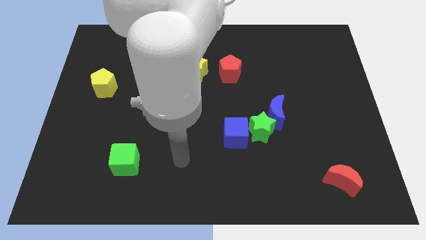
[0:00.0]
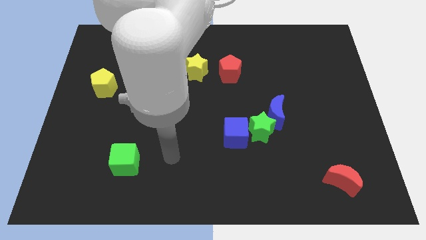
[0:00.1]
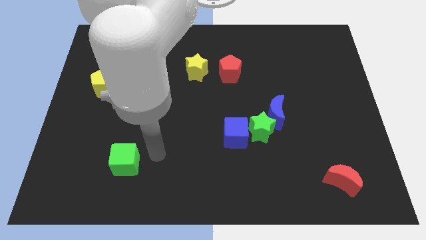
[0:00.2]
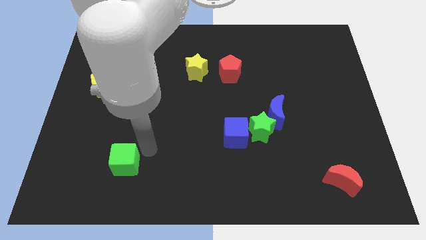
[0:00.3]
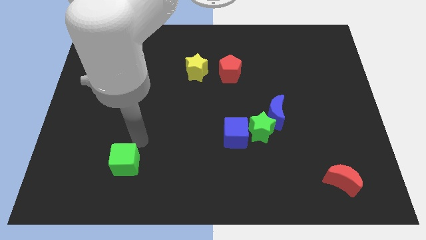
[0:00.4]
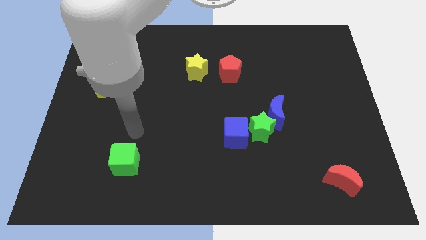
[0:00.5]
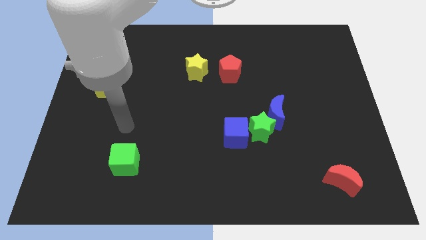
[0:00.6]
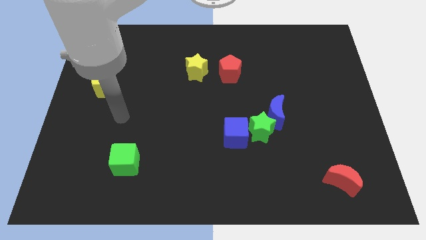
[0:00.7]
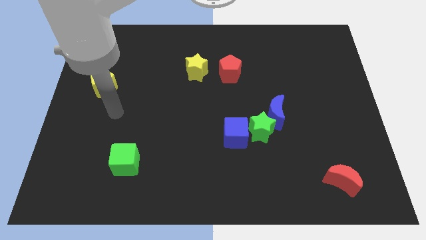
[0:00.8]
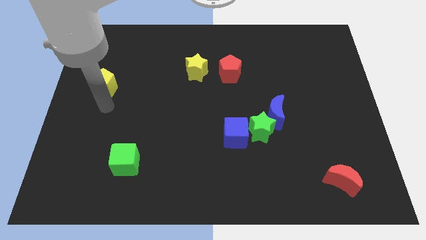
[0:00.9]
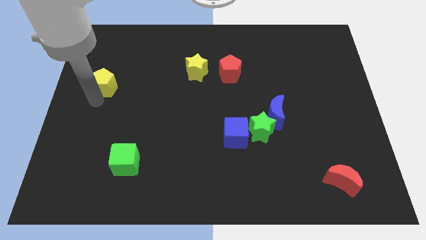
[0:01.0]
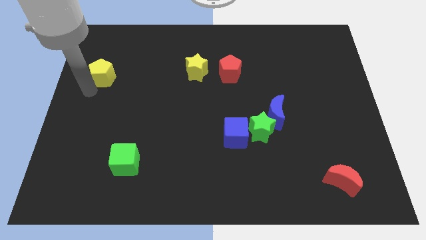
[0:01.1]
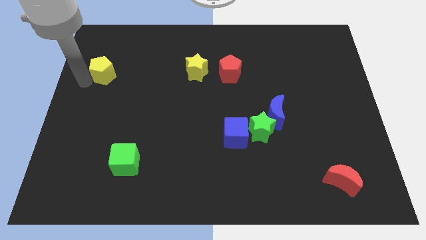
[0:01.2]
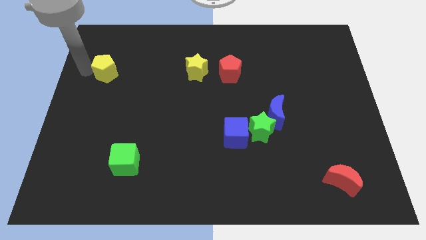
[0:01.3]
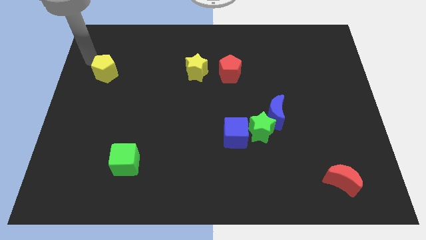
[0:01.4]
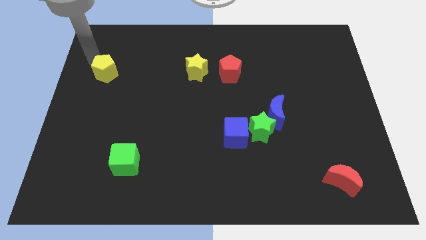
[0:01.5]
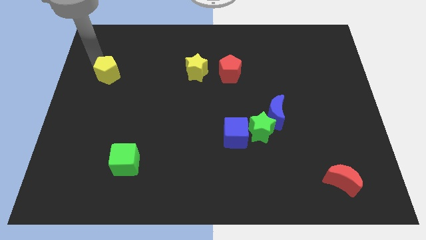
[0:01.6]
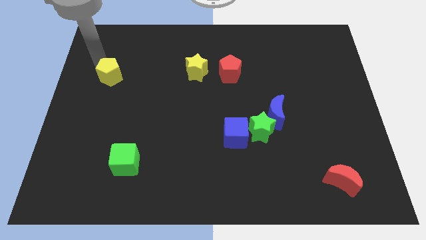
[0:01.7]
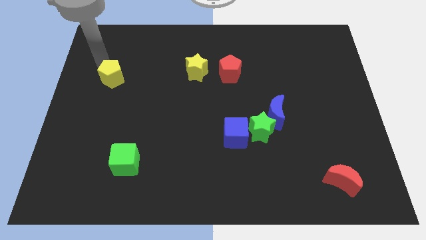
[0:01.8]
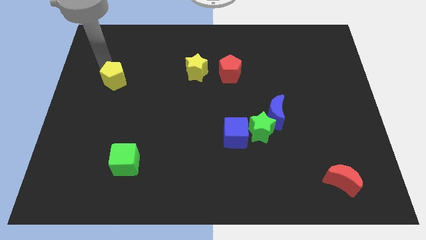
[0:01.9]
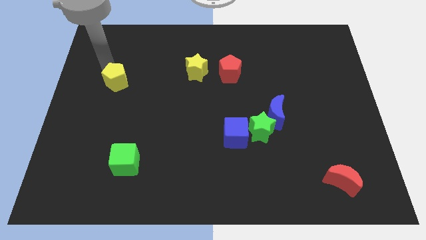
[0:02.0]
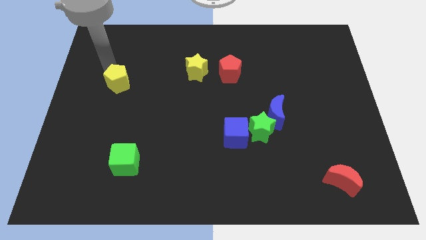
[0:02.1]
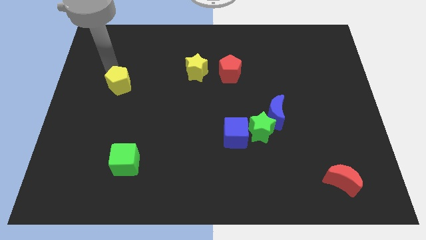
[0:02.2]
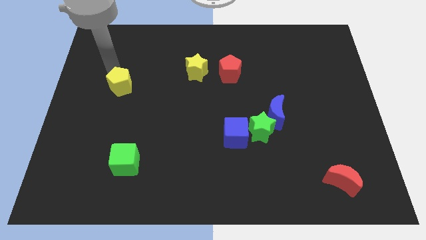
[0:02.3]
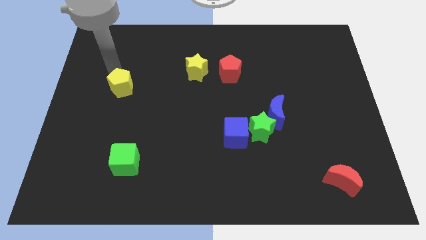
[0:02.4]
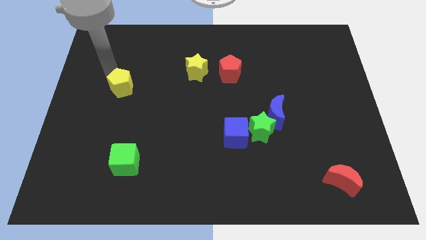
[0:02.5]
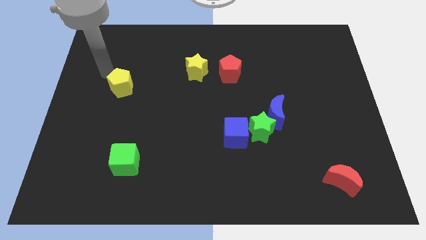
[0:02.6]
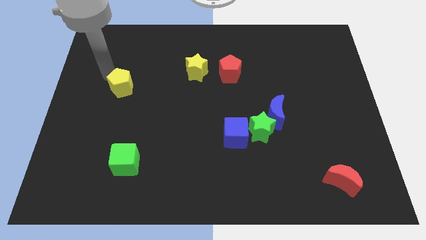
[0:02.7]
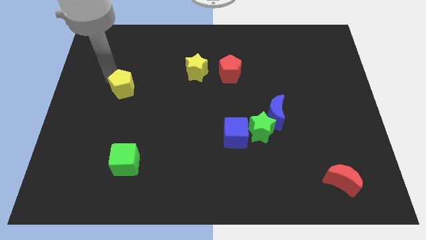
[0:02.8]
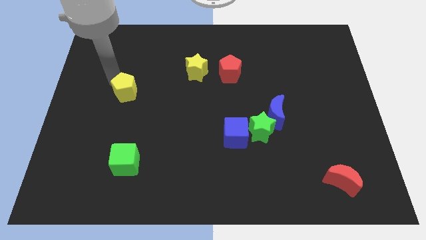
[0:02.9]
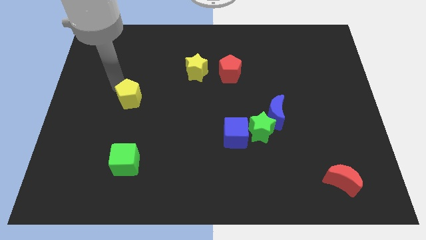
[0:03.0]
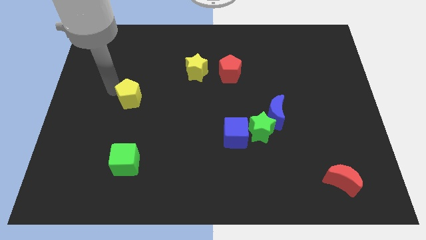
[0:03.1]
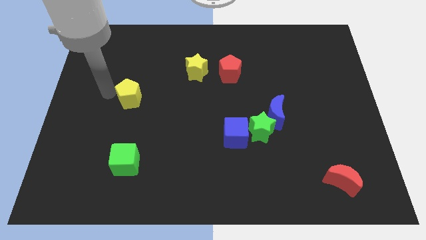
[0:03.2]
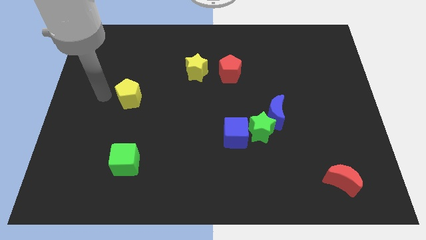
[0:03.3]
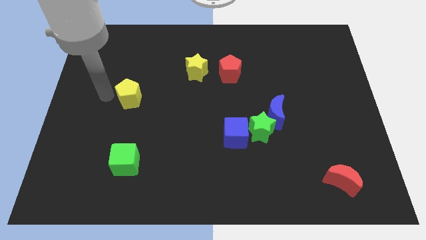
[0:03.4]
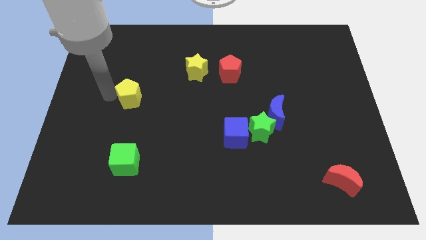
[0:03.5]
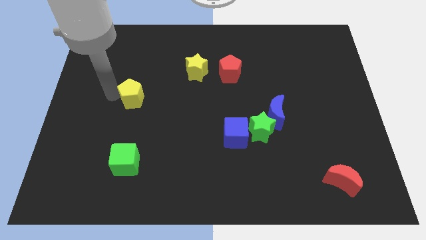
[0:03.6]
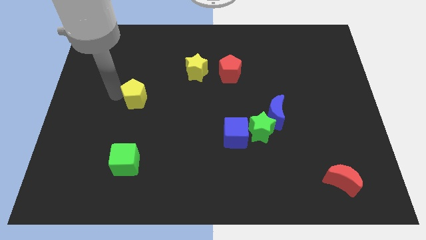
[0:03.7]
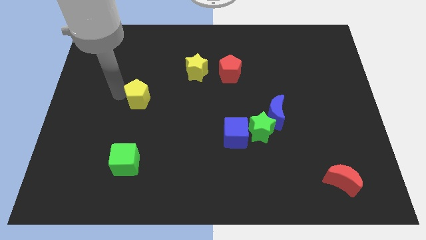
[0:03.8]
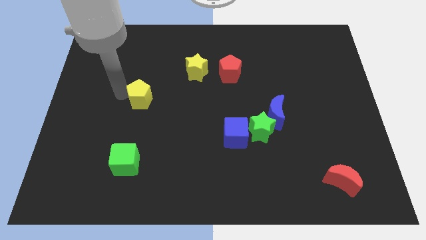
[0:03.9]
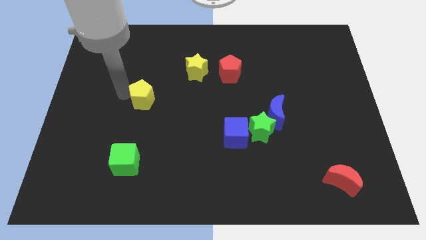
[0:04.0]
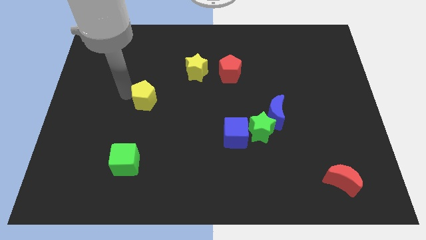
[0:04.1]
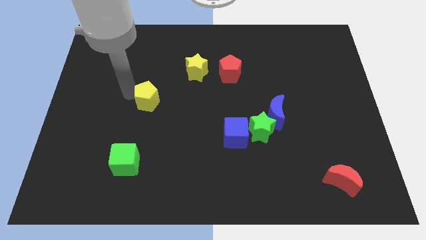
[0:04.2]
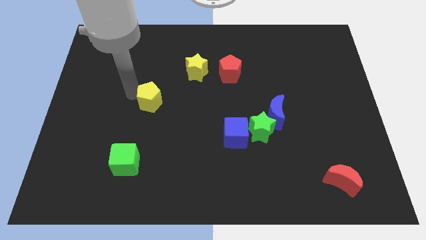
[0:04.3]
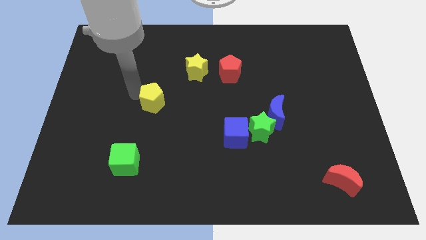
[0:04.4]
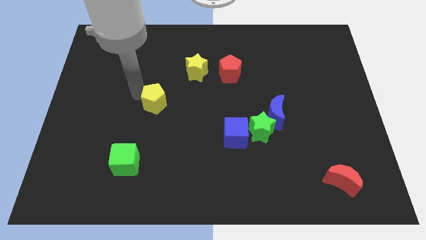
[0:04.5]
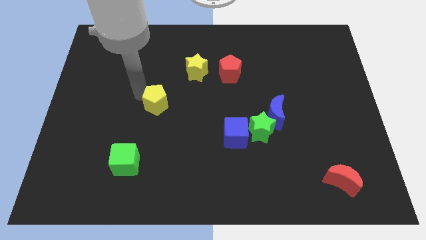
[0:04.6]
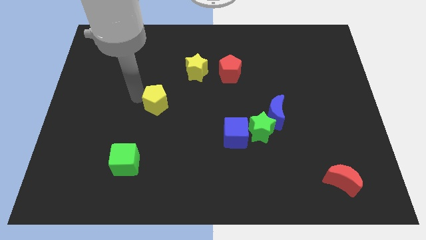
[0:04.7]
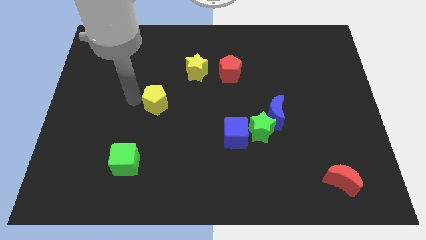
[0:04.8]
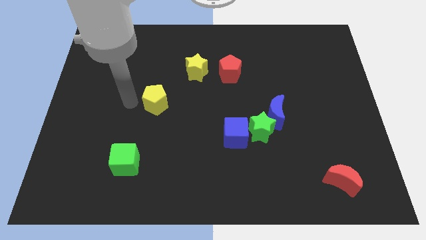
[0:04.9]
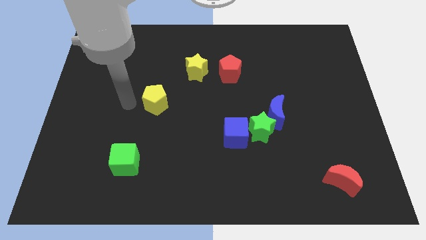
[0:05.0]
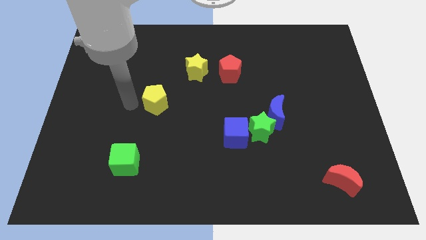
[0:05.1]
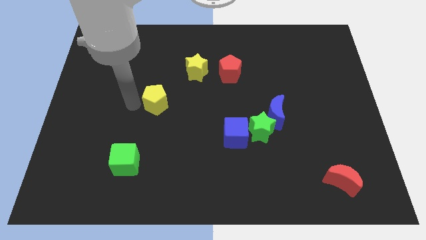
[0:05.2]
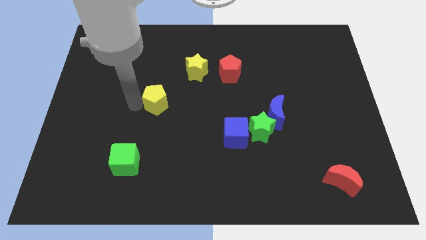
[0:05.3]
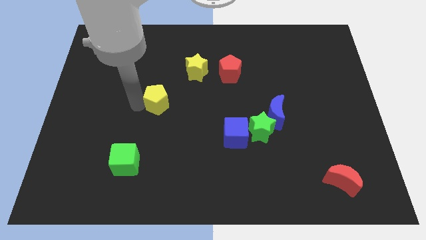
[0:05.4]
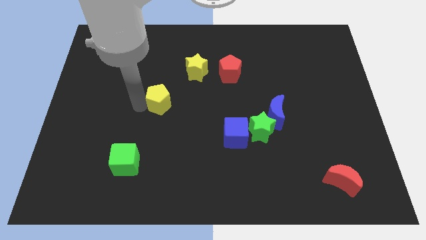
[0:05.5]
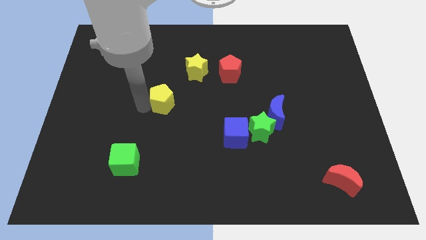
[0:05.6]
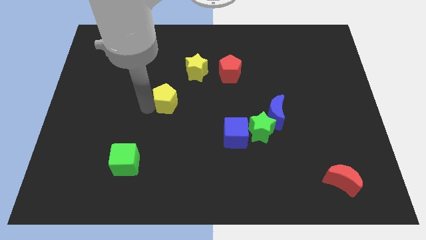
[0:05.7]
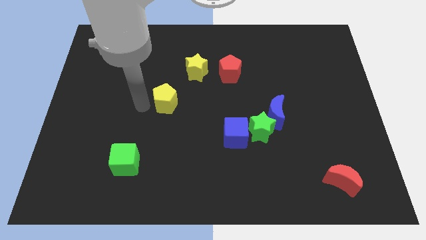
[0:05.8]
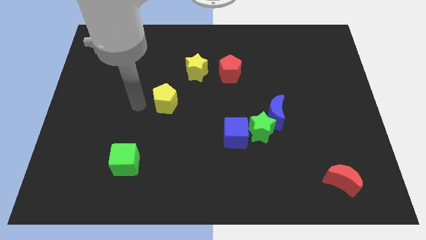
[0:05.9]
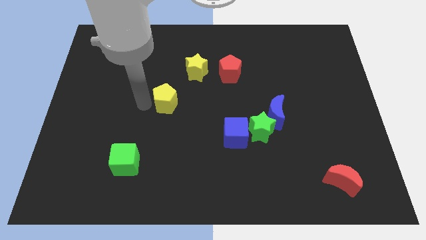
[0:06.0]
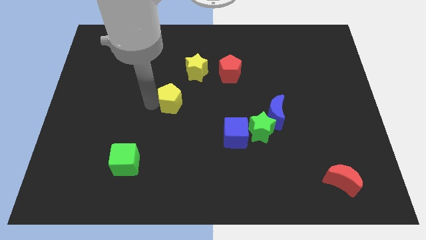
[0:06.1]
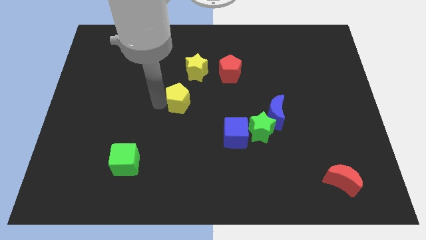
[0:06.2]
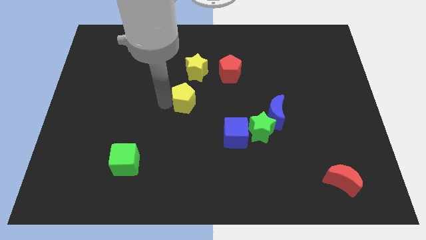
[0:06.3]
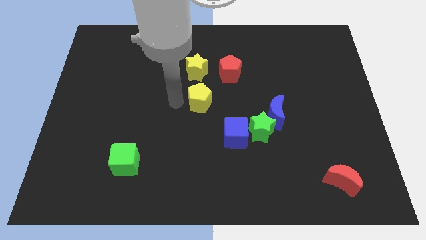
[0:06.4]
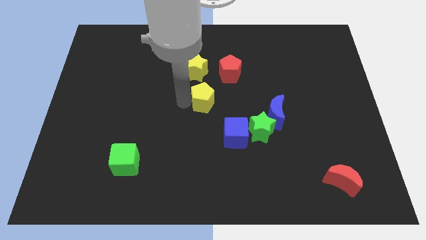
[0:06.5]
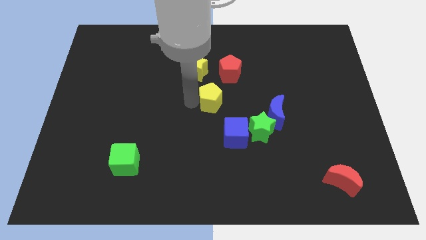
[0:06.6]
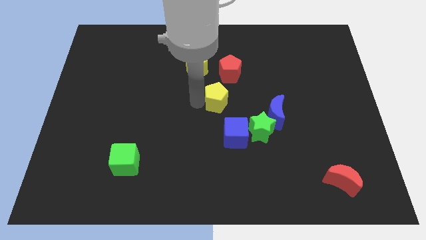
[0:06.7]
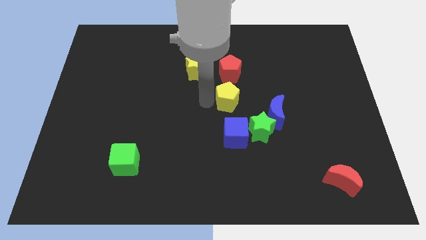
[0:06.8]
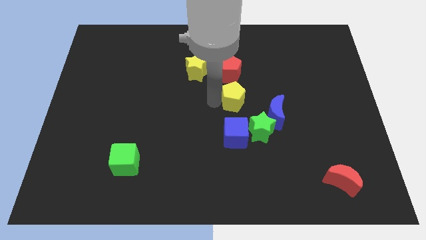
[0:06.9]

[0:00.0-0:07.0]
slide the yellow pentagon diagonally up and to the left of the blue moon
